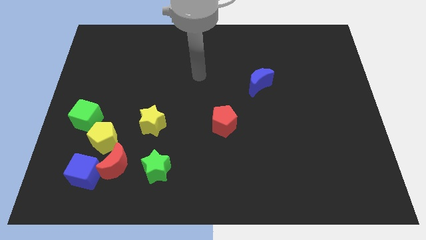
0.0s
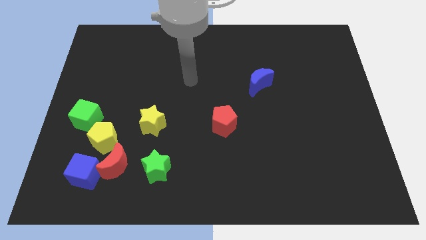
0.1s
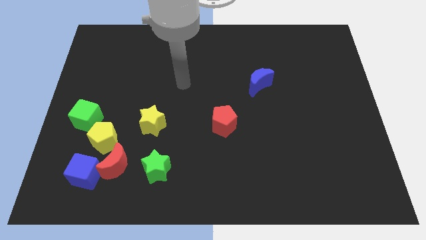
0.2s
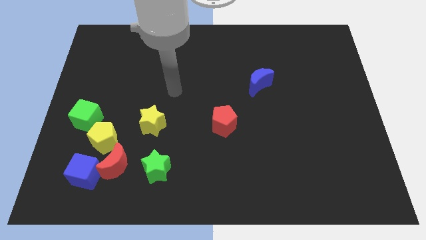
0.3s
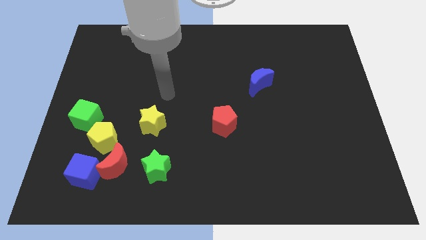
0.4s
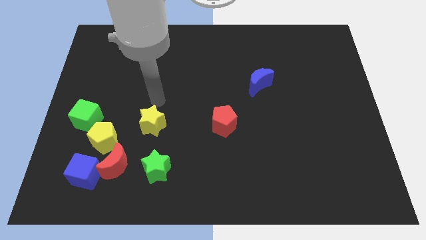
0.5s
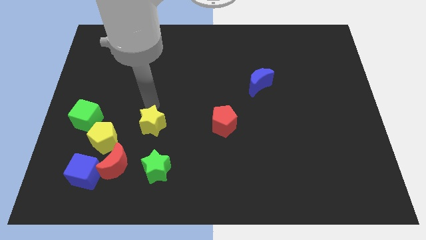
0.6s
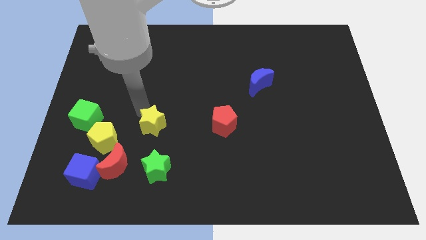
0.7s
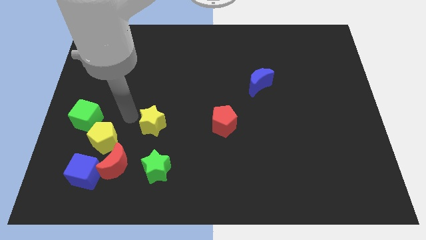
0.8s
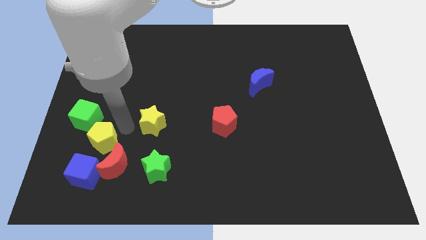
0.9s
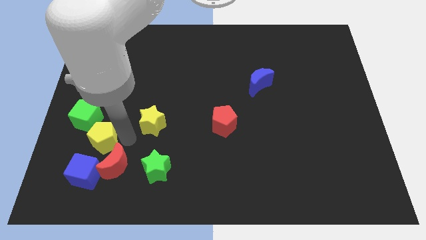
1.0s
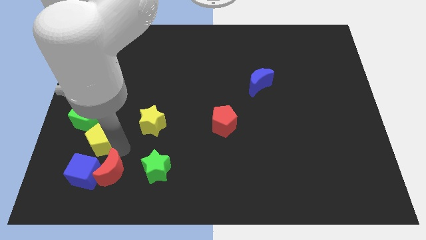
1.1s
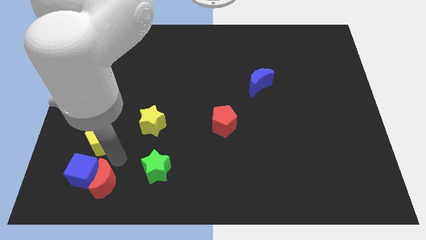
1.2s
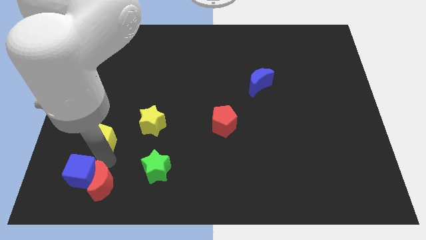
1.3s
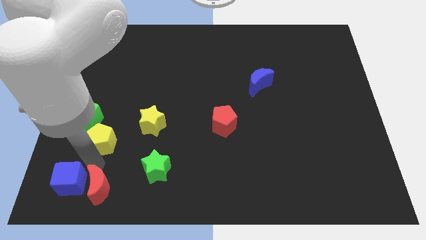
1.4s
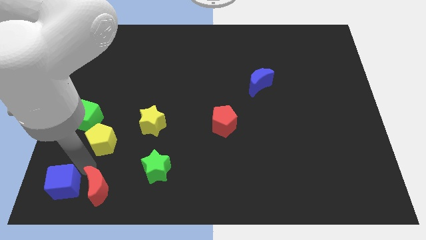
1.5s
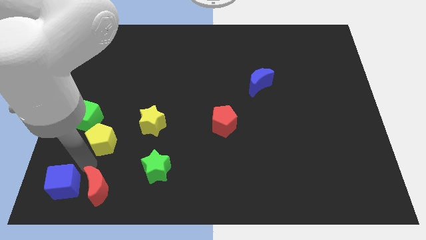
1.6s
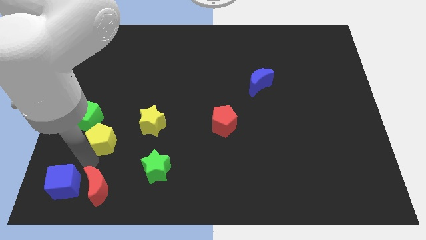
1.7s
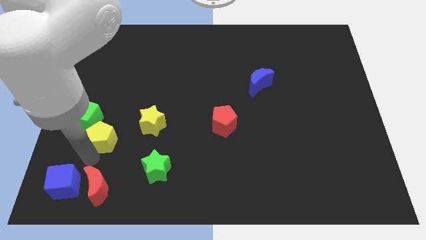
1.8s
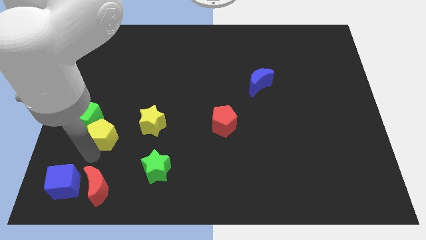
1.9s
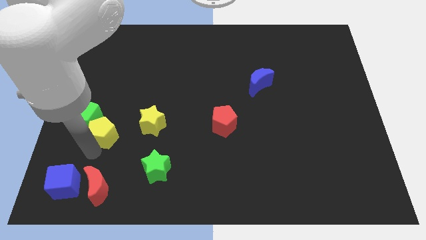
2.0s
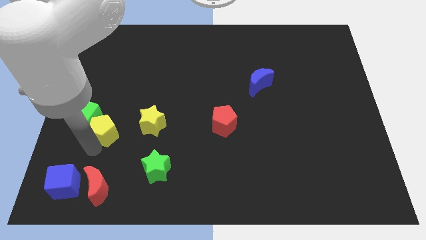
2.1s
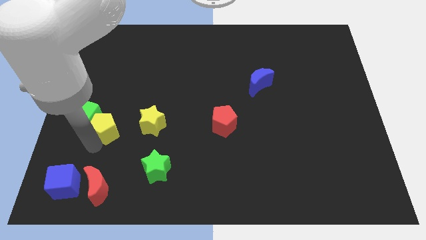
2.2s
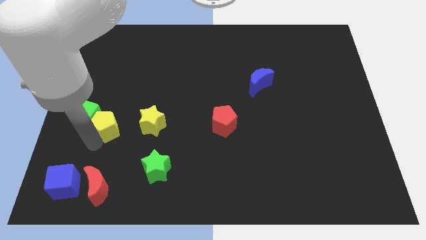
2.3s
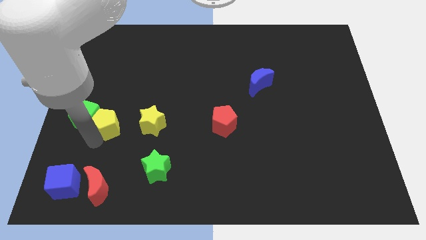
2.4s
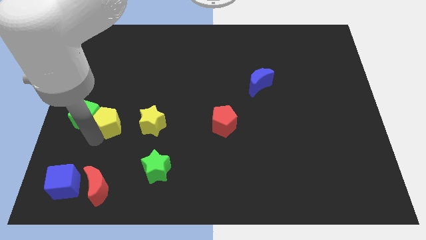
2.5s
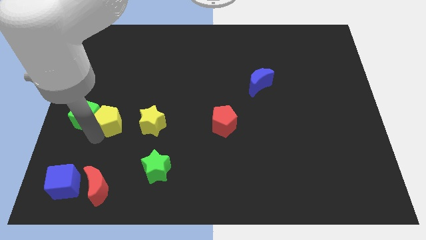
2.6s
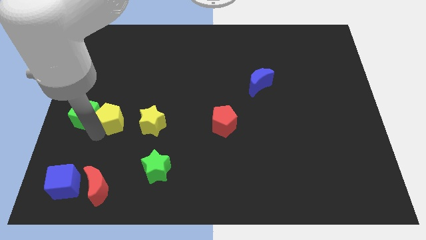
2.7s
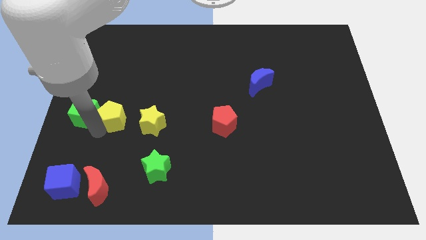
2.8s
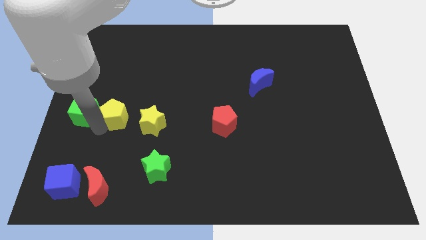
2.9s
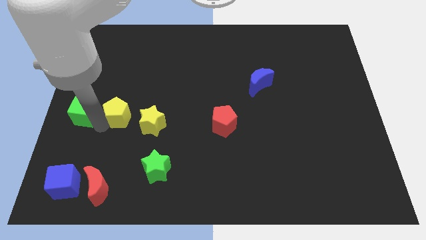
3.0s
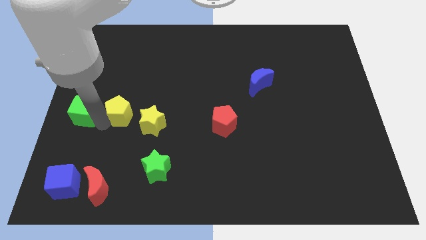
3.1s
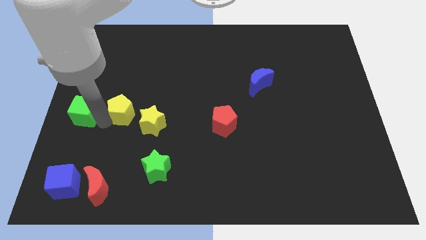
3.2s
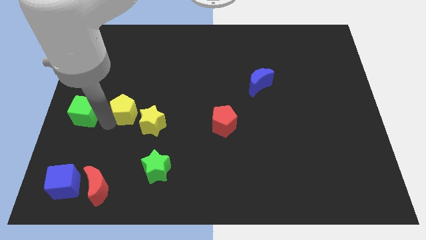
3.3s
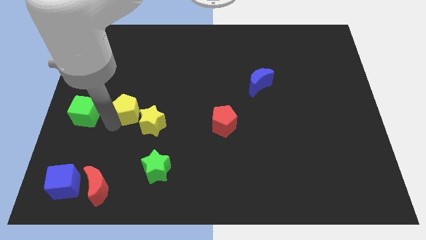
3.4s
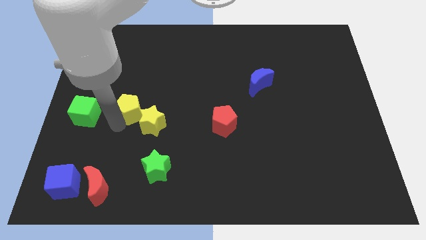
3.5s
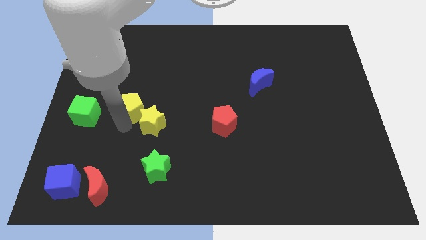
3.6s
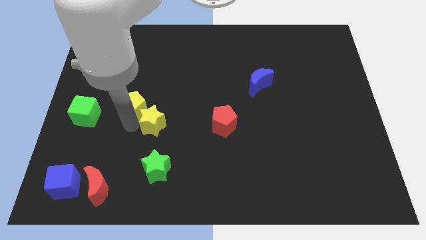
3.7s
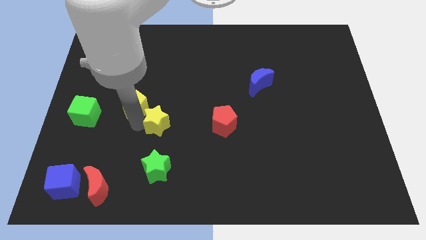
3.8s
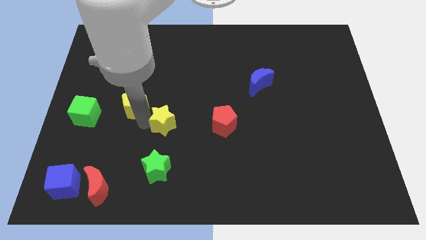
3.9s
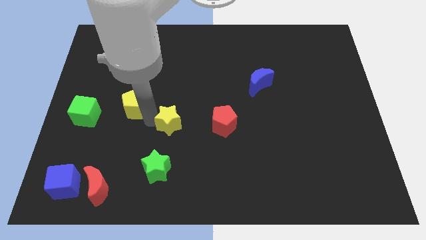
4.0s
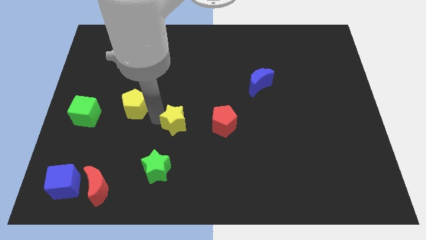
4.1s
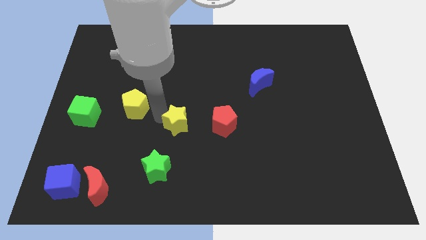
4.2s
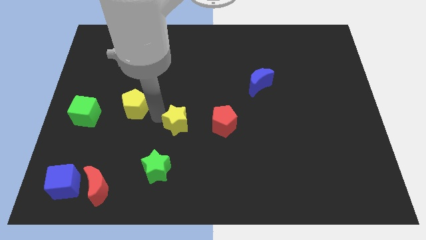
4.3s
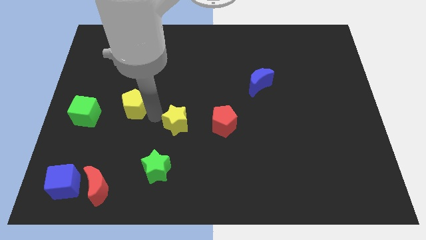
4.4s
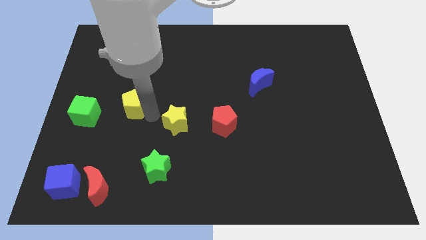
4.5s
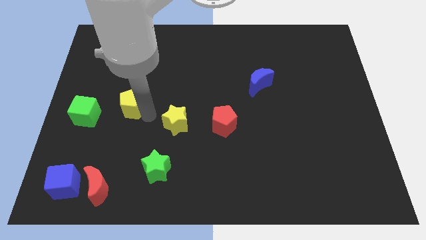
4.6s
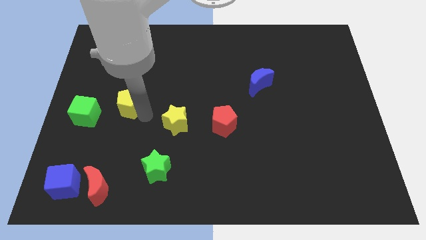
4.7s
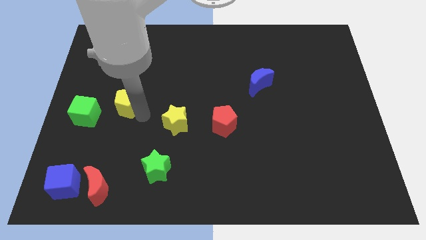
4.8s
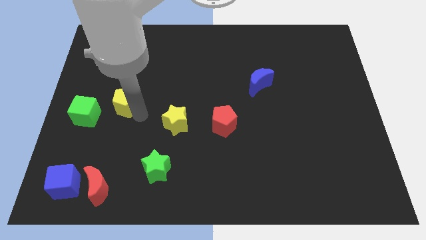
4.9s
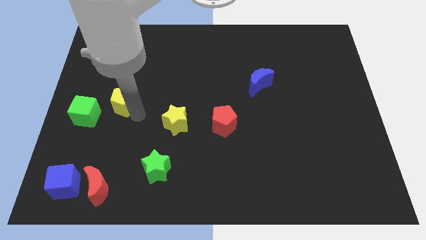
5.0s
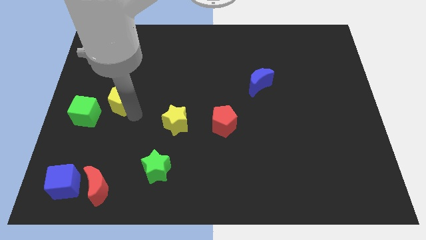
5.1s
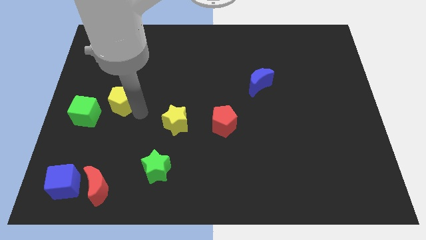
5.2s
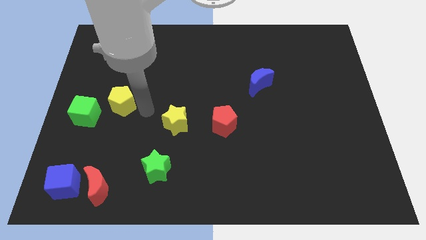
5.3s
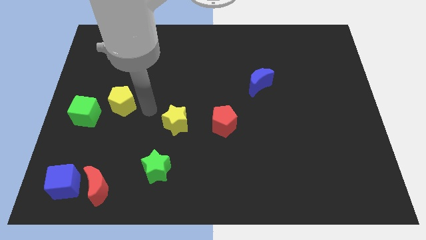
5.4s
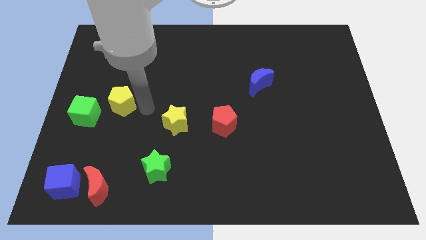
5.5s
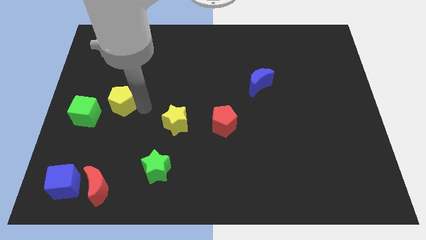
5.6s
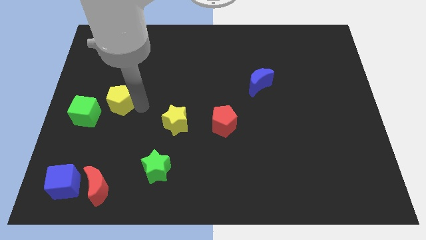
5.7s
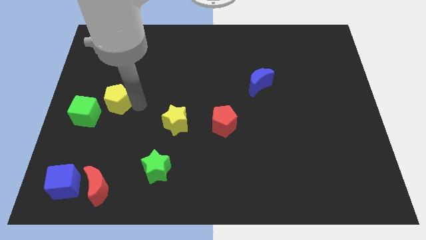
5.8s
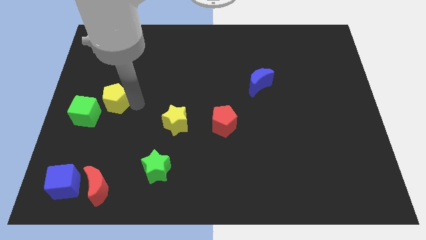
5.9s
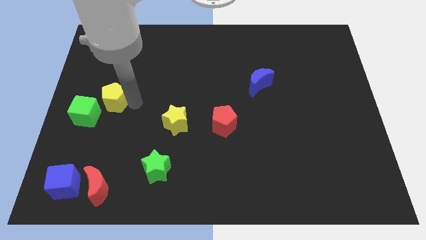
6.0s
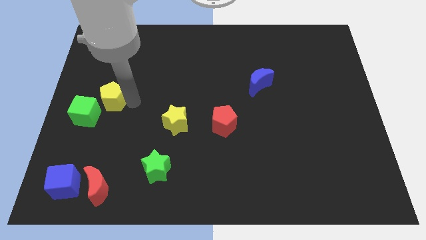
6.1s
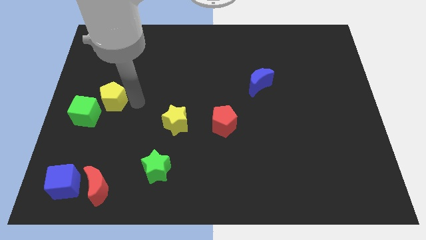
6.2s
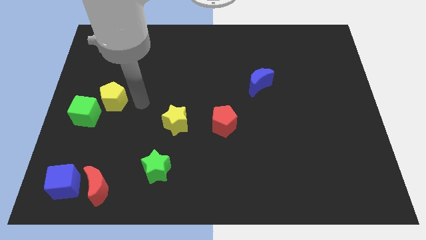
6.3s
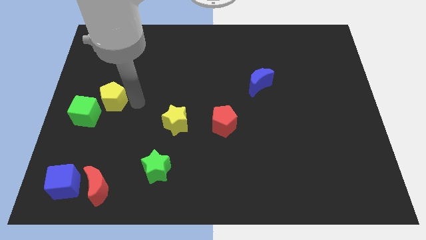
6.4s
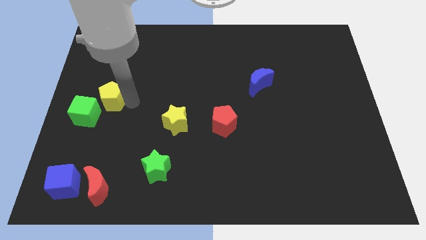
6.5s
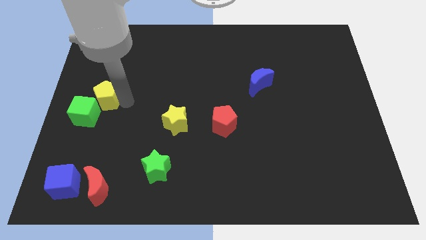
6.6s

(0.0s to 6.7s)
push the yellow pentagon to the top side of the green cube

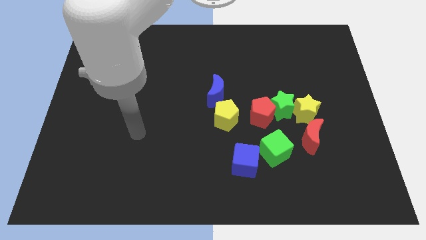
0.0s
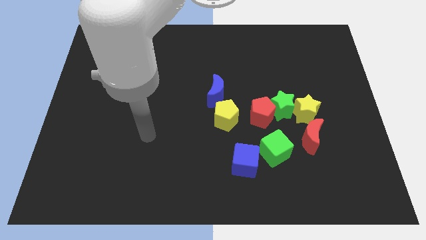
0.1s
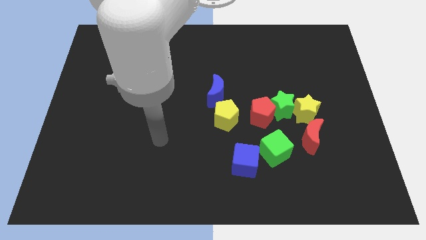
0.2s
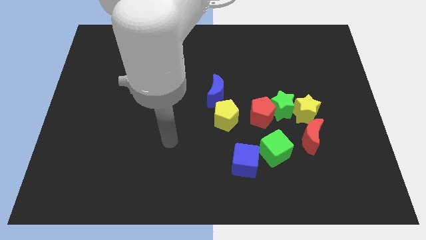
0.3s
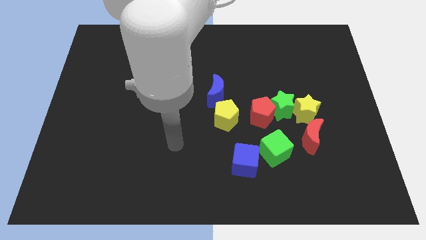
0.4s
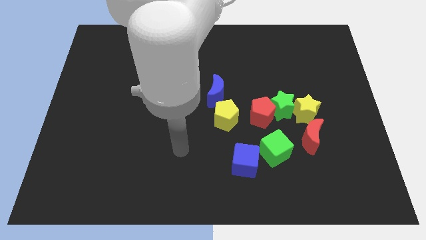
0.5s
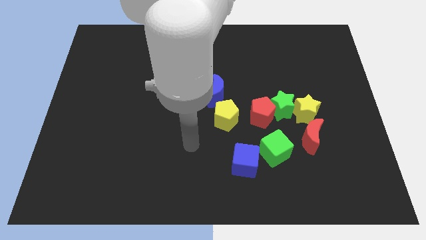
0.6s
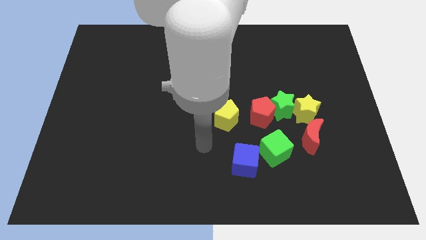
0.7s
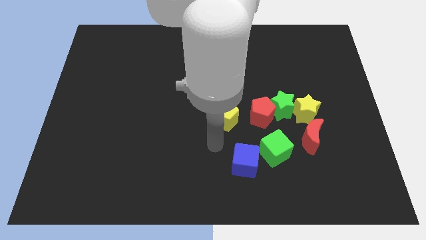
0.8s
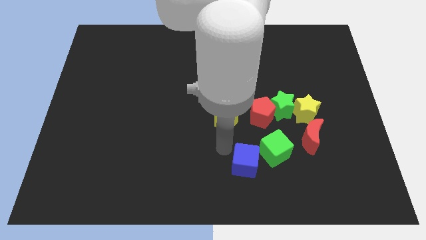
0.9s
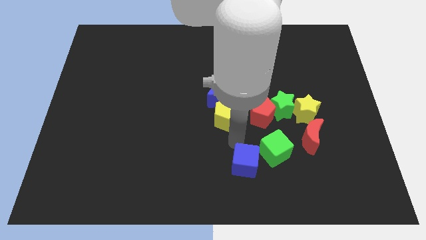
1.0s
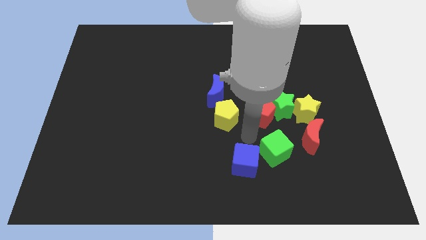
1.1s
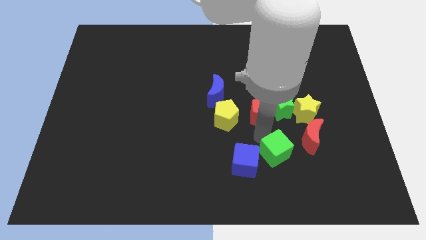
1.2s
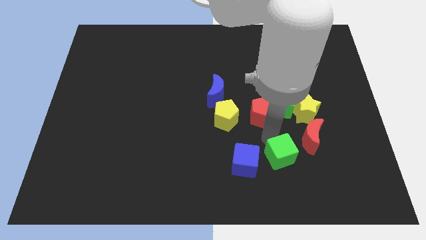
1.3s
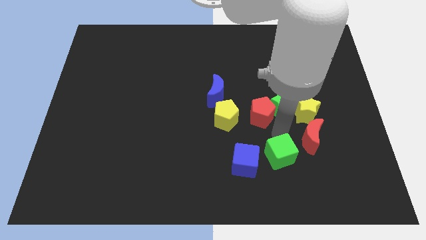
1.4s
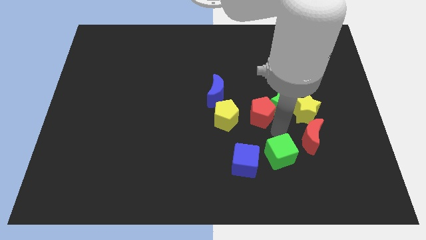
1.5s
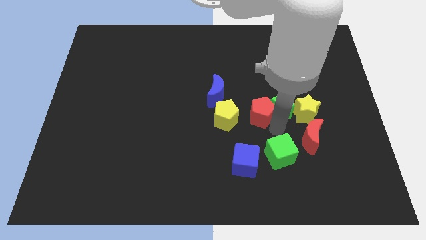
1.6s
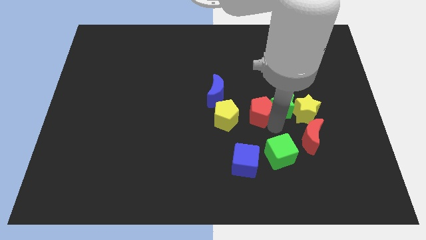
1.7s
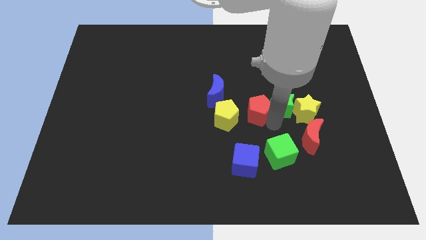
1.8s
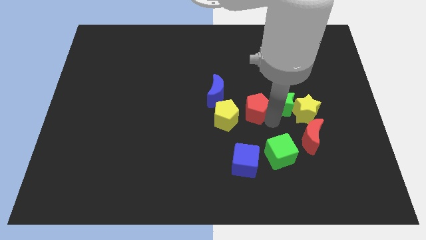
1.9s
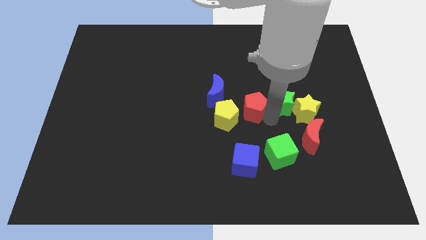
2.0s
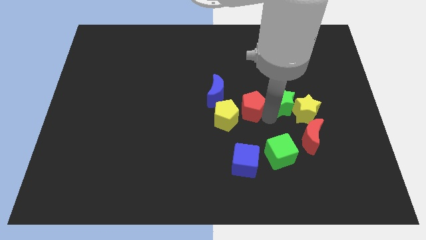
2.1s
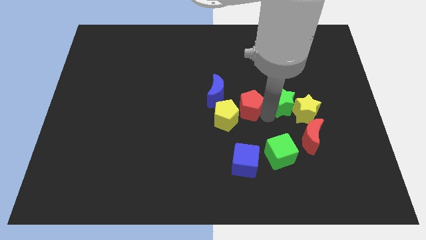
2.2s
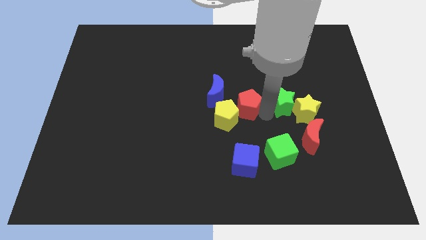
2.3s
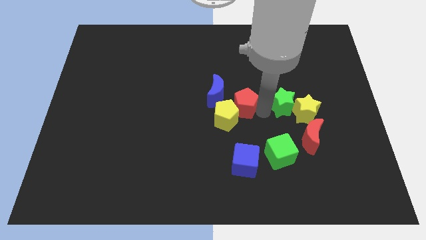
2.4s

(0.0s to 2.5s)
slide the red pentagon to the top side of the yellow pentagon
